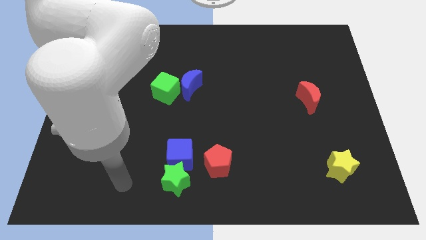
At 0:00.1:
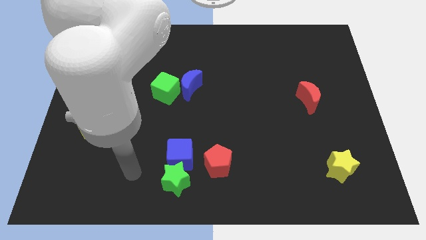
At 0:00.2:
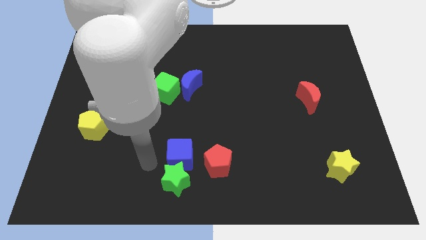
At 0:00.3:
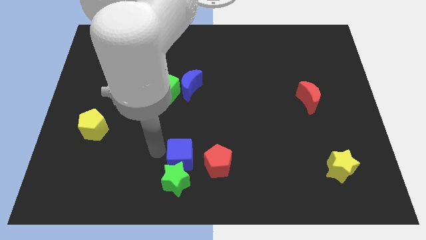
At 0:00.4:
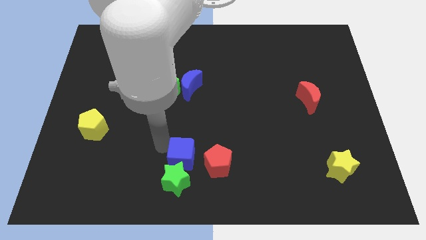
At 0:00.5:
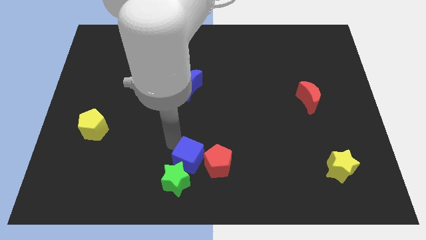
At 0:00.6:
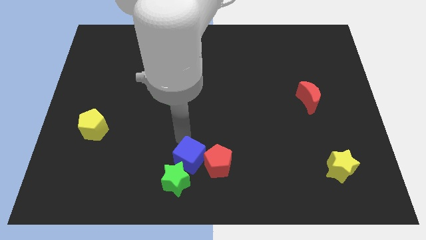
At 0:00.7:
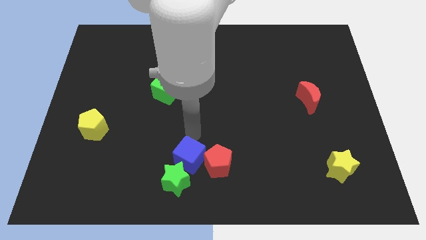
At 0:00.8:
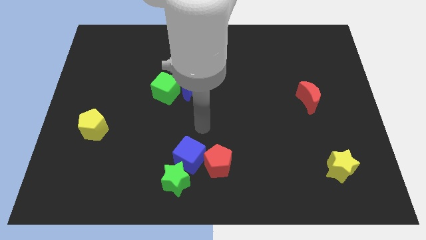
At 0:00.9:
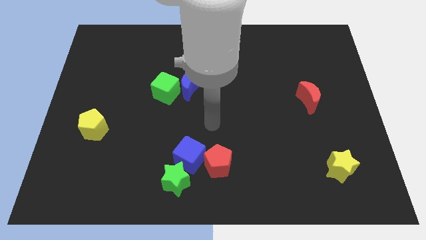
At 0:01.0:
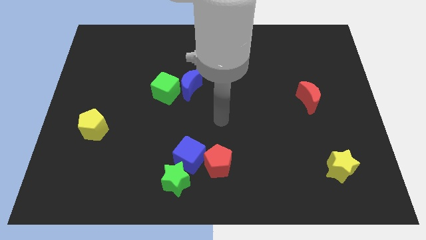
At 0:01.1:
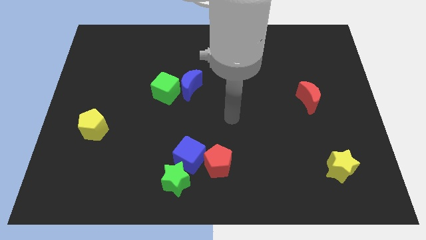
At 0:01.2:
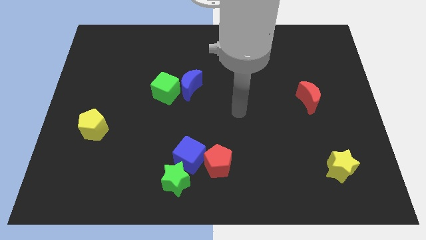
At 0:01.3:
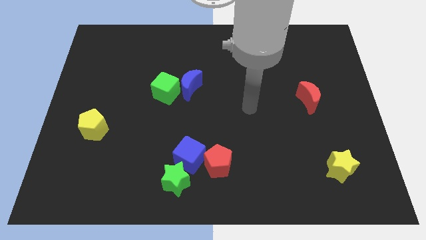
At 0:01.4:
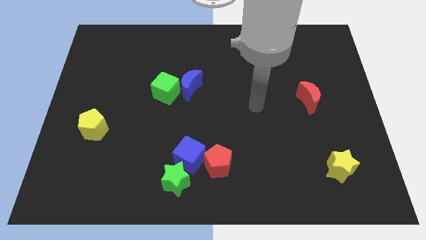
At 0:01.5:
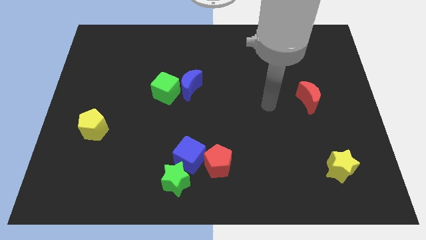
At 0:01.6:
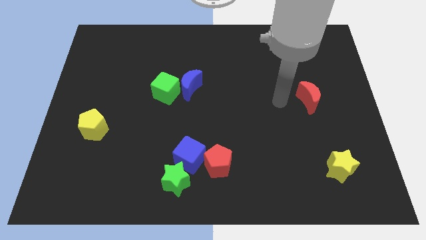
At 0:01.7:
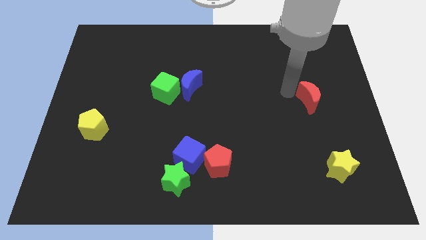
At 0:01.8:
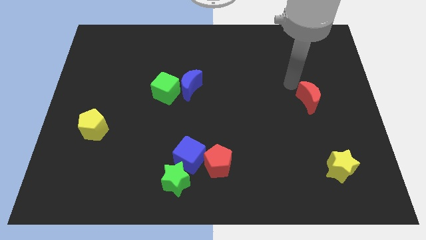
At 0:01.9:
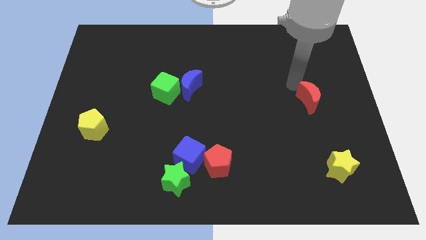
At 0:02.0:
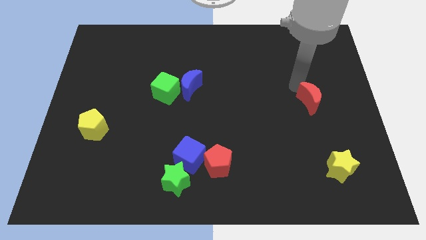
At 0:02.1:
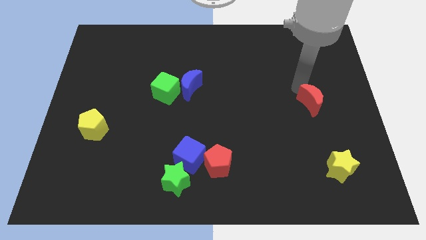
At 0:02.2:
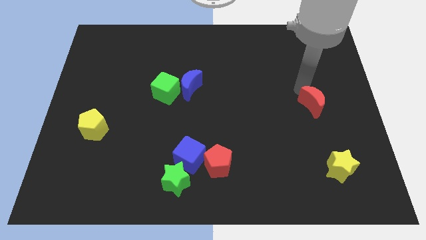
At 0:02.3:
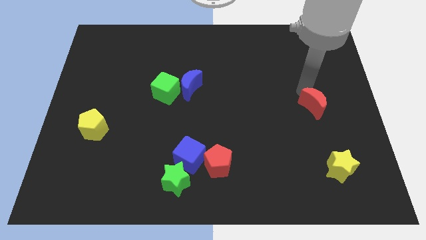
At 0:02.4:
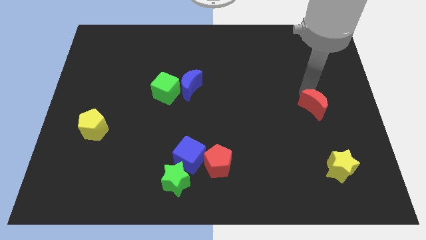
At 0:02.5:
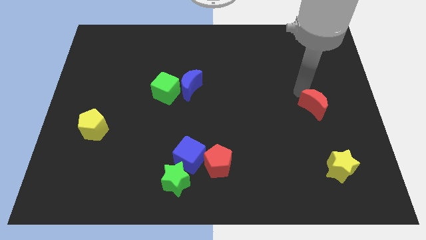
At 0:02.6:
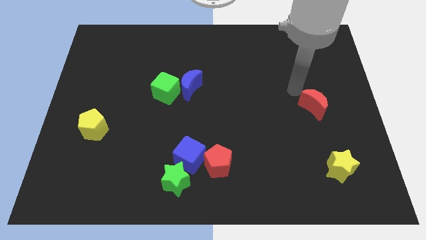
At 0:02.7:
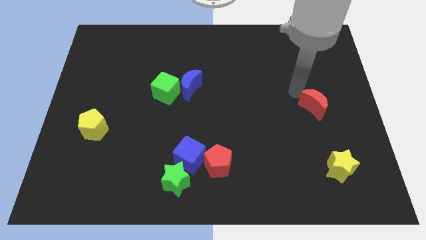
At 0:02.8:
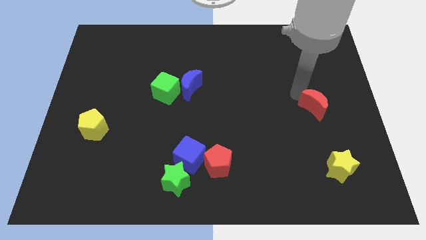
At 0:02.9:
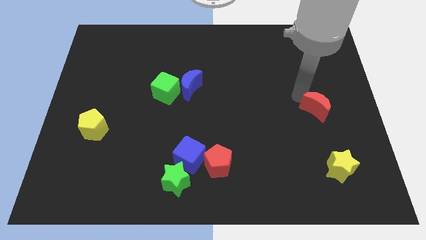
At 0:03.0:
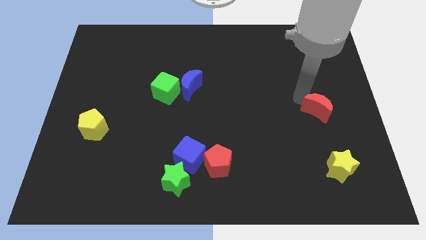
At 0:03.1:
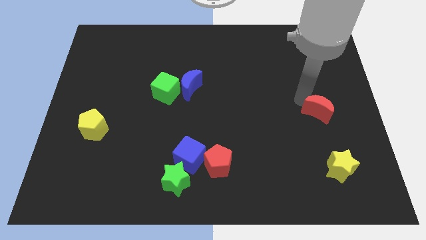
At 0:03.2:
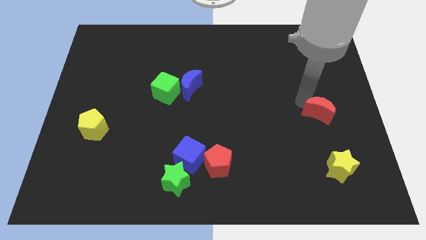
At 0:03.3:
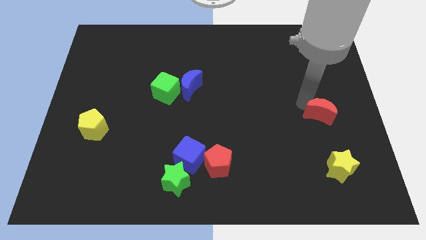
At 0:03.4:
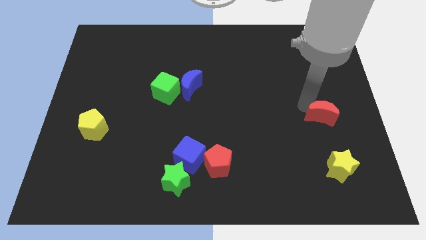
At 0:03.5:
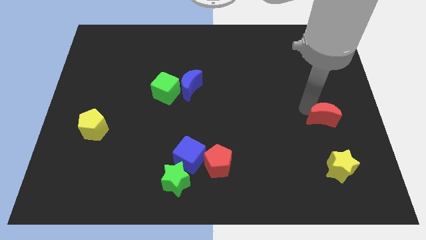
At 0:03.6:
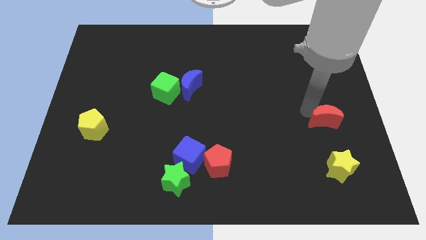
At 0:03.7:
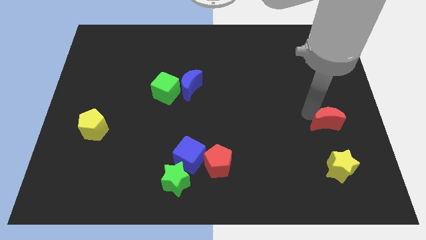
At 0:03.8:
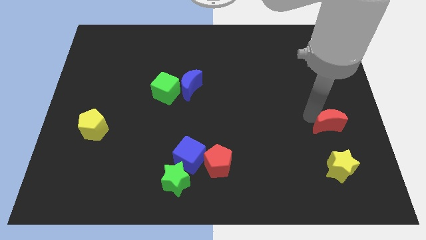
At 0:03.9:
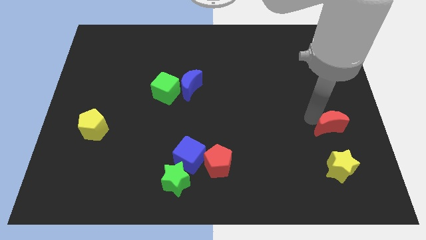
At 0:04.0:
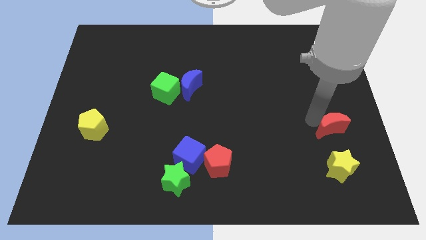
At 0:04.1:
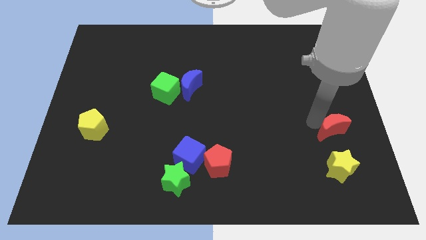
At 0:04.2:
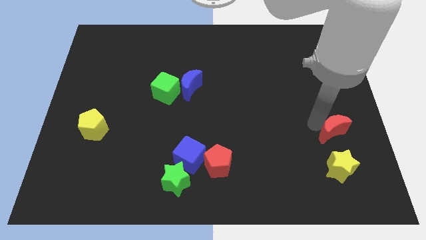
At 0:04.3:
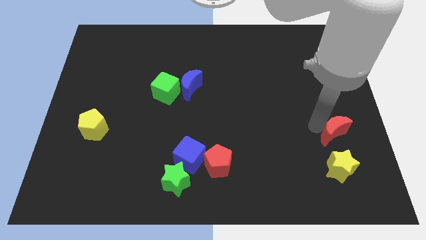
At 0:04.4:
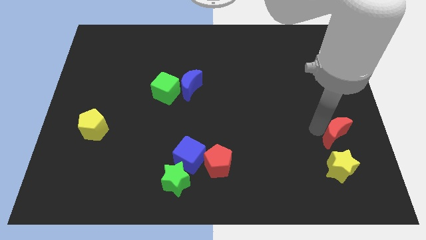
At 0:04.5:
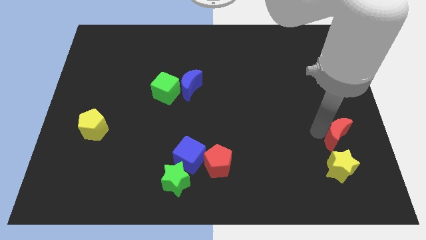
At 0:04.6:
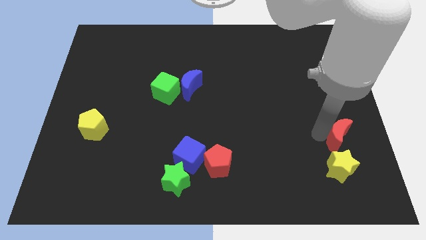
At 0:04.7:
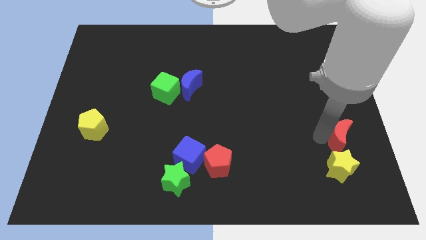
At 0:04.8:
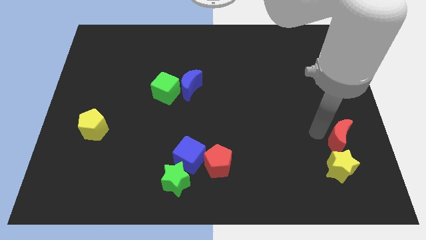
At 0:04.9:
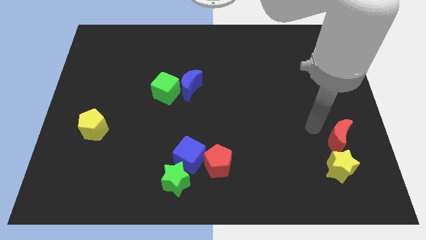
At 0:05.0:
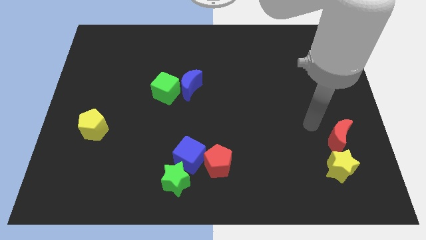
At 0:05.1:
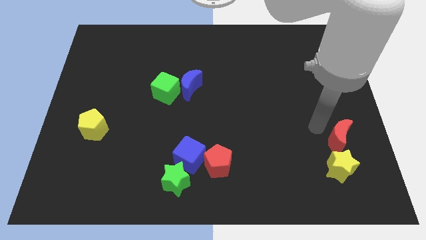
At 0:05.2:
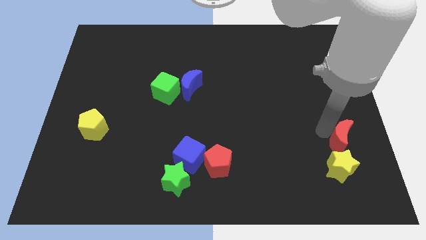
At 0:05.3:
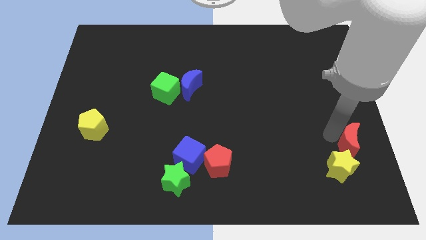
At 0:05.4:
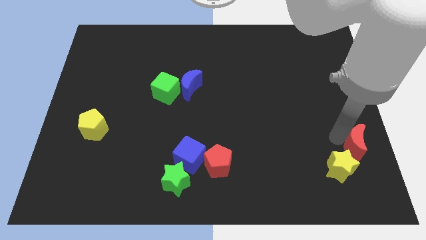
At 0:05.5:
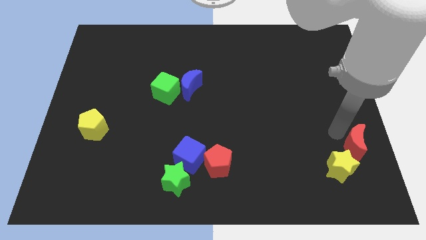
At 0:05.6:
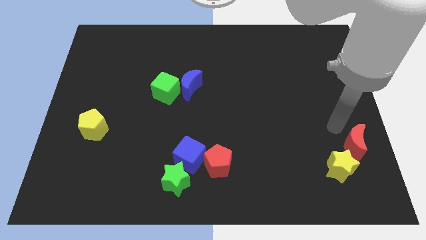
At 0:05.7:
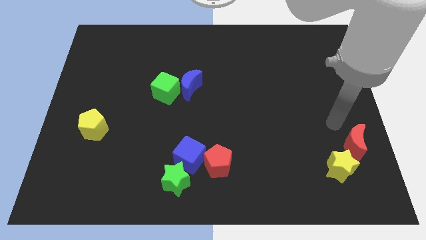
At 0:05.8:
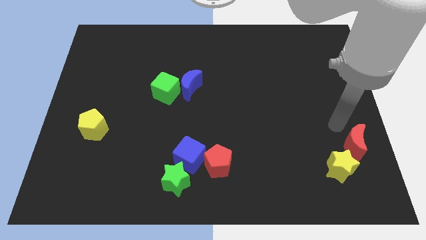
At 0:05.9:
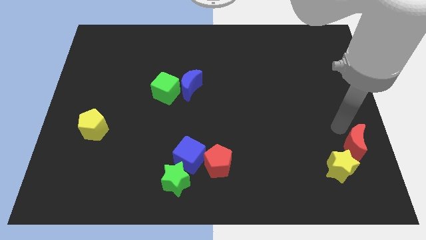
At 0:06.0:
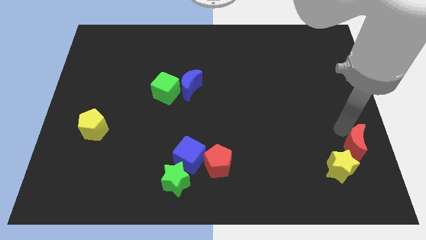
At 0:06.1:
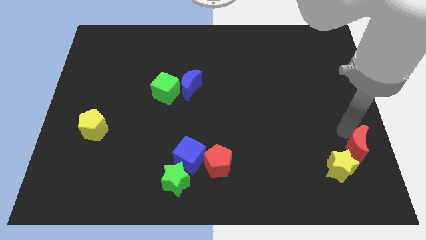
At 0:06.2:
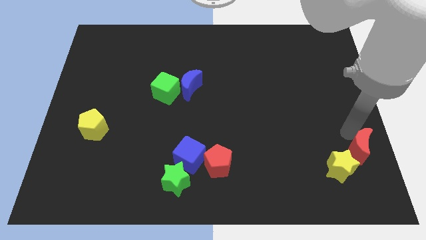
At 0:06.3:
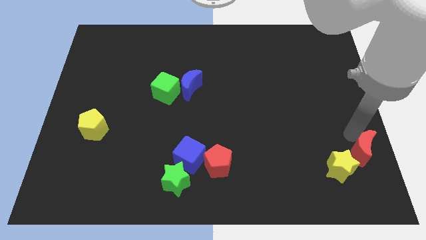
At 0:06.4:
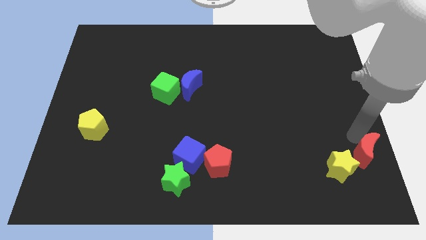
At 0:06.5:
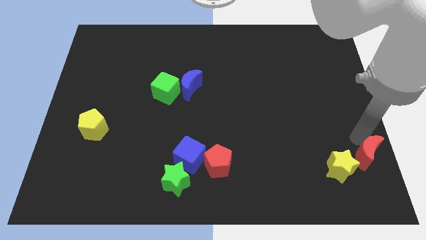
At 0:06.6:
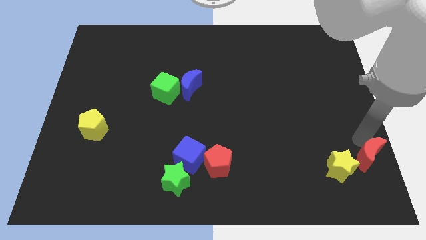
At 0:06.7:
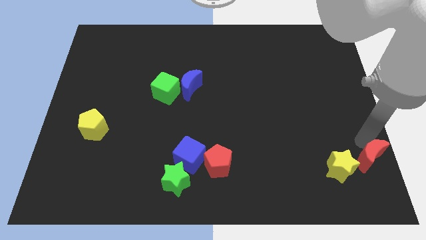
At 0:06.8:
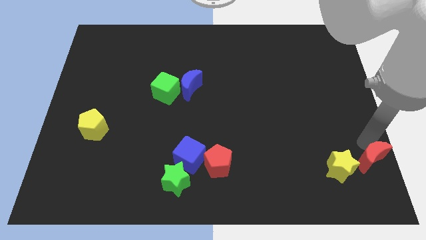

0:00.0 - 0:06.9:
push the red moon to the bottom right

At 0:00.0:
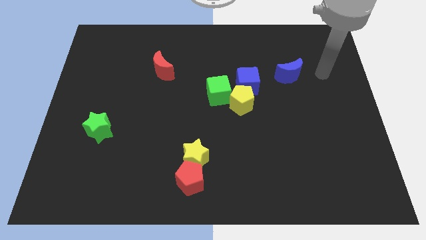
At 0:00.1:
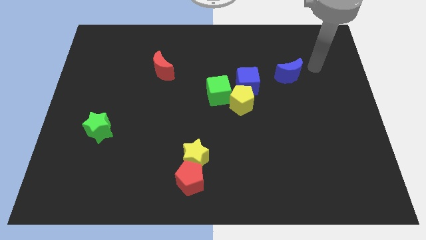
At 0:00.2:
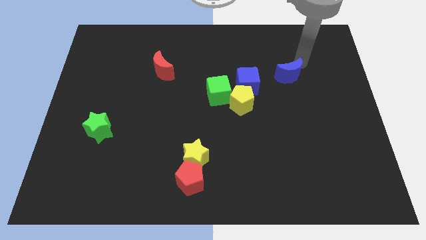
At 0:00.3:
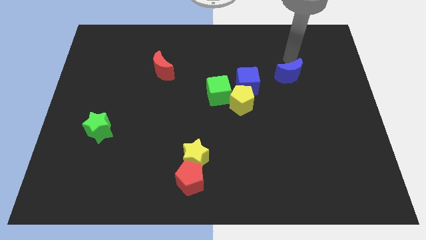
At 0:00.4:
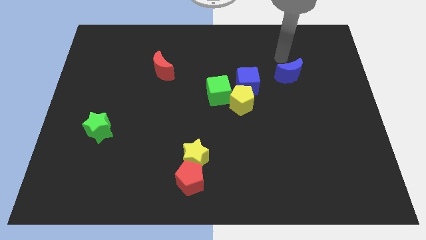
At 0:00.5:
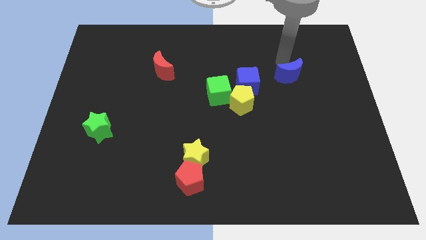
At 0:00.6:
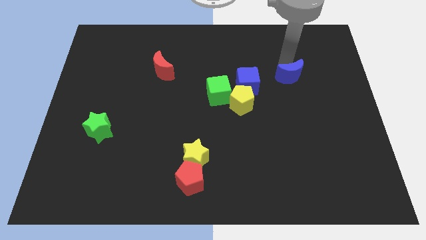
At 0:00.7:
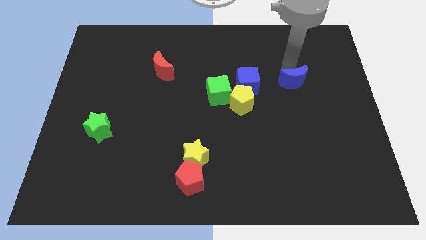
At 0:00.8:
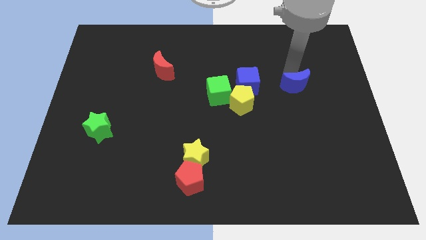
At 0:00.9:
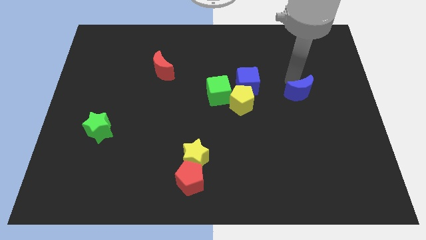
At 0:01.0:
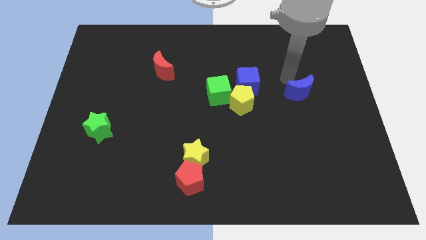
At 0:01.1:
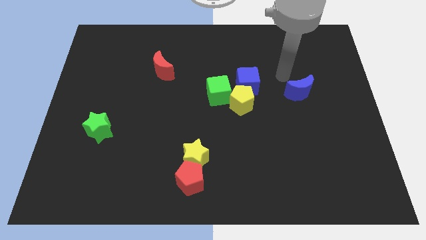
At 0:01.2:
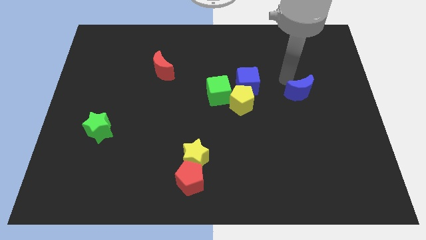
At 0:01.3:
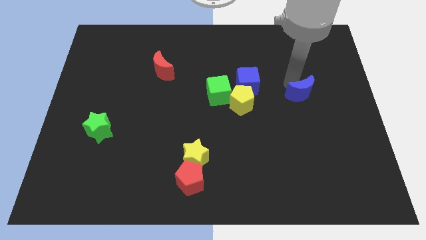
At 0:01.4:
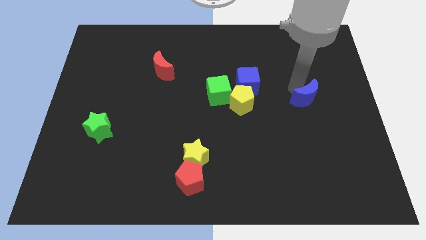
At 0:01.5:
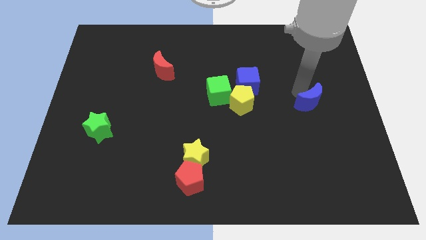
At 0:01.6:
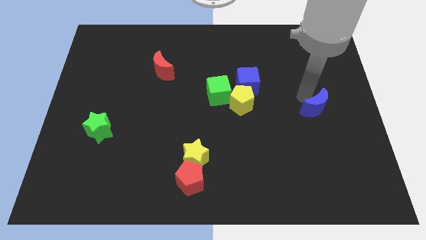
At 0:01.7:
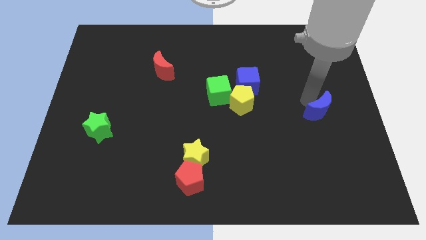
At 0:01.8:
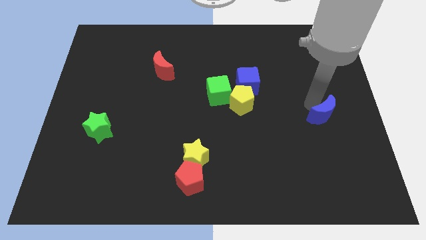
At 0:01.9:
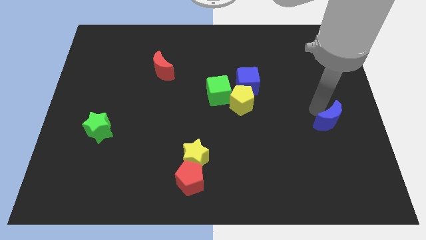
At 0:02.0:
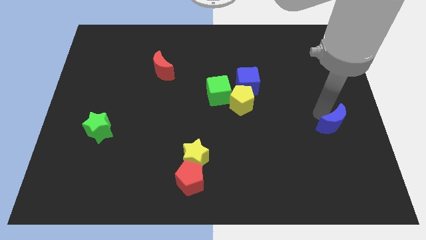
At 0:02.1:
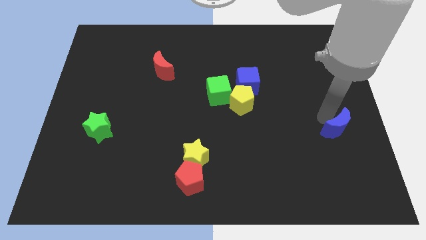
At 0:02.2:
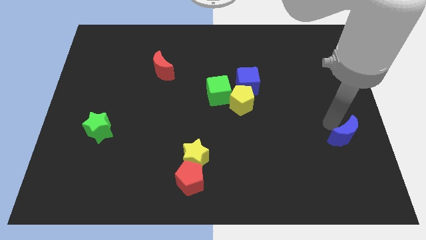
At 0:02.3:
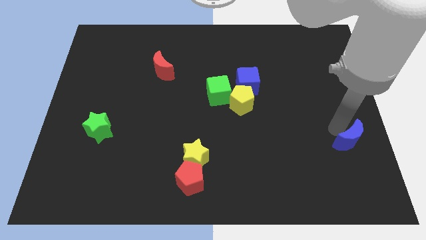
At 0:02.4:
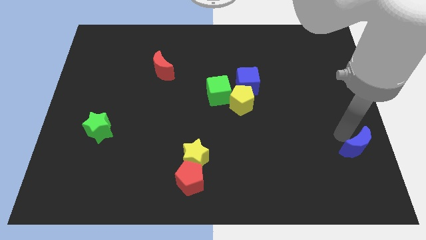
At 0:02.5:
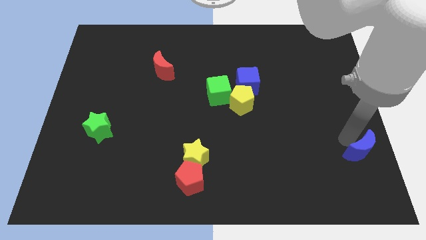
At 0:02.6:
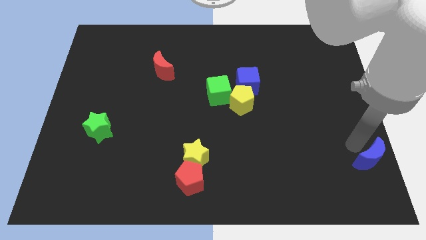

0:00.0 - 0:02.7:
push the blue moon to the bottom right of the board
